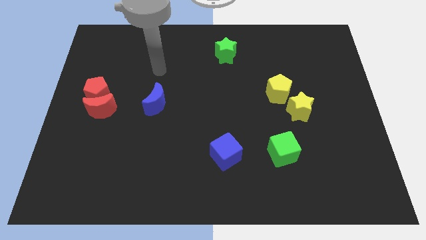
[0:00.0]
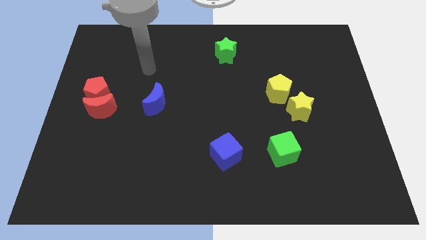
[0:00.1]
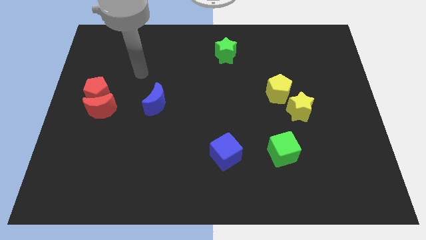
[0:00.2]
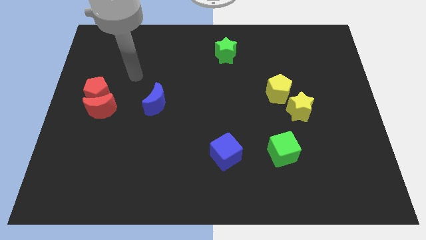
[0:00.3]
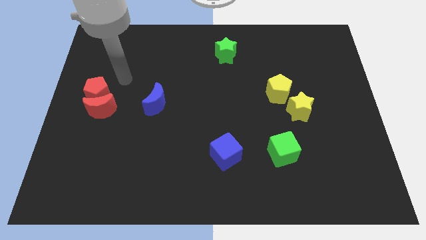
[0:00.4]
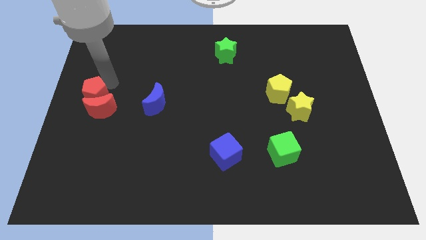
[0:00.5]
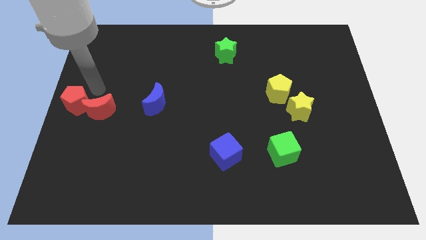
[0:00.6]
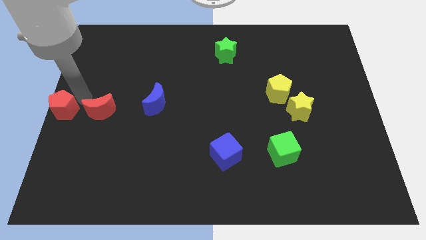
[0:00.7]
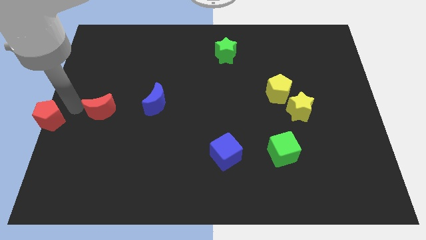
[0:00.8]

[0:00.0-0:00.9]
pull the red moon apart from the red pentagon

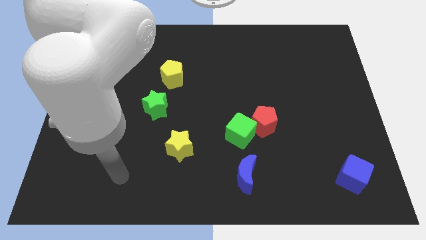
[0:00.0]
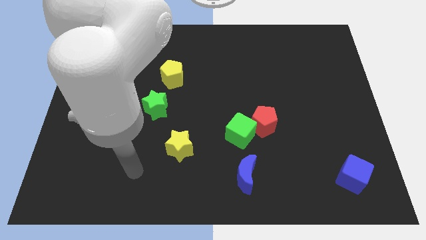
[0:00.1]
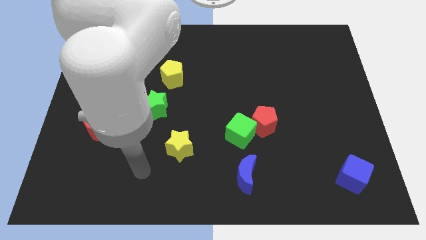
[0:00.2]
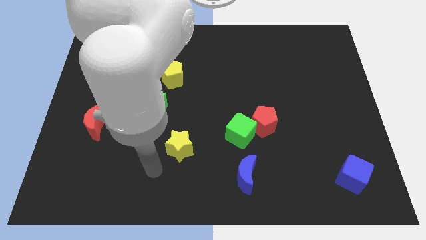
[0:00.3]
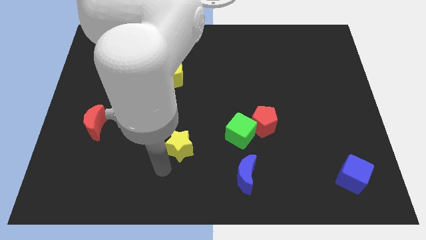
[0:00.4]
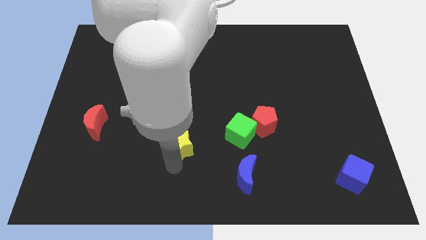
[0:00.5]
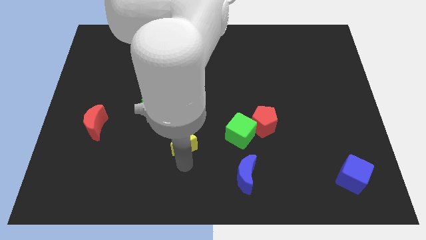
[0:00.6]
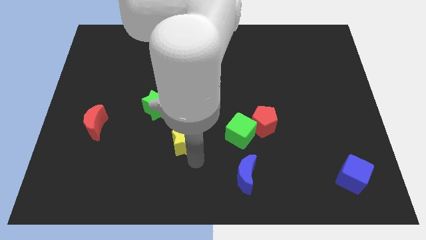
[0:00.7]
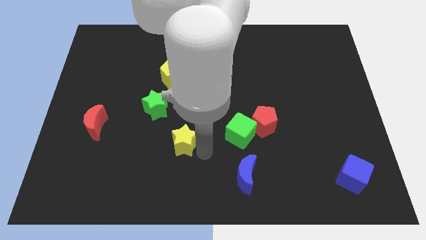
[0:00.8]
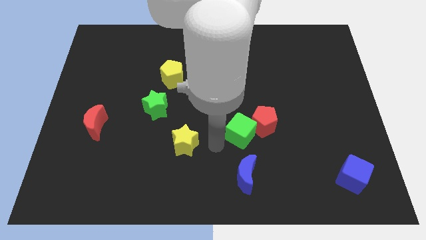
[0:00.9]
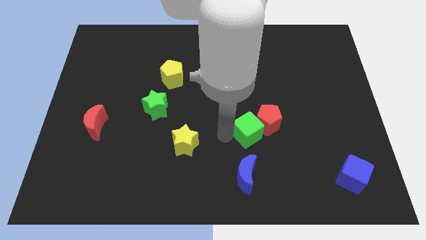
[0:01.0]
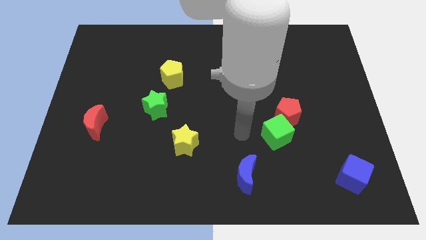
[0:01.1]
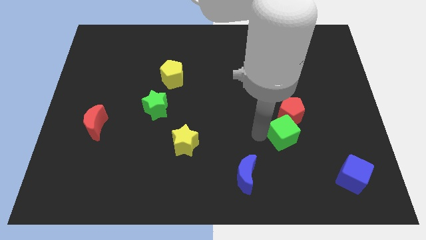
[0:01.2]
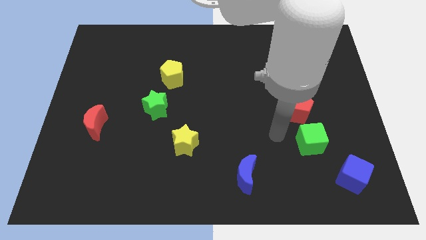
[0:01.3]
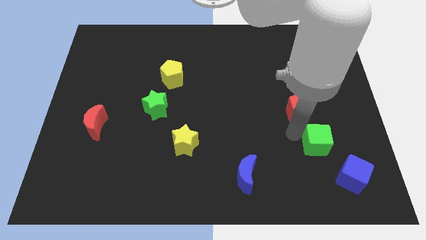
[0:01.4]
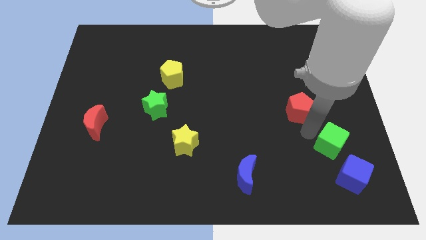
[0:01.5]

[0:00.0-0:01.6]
move the red pentagon away from the green cube

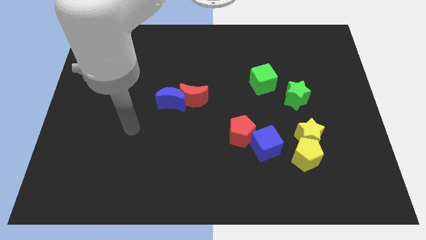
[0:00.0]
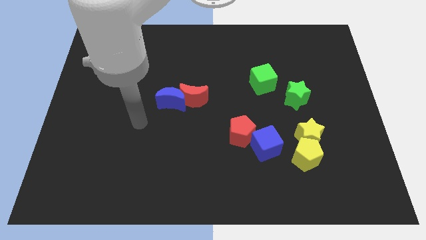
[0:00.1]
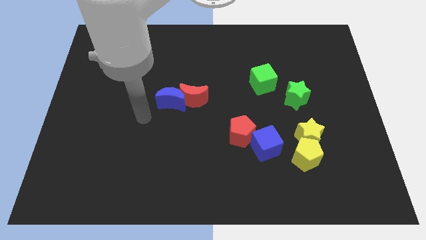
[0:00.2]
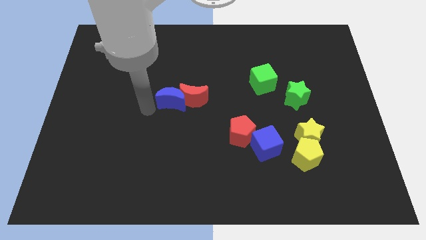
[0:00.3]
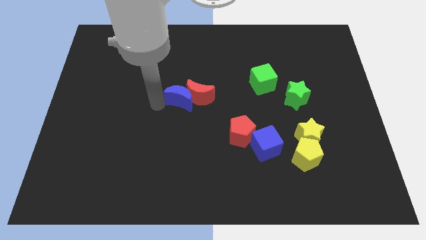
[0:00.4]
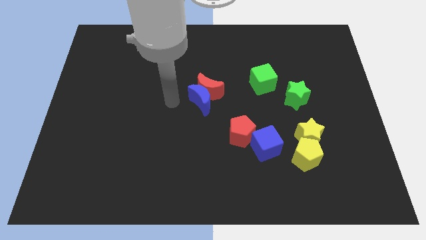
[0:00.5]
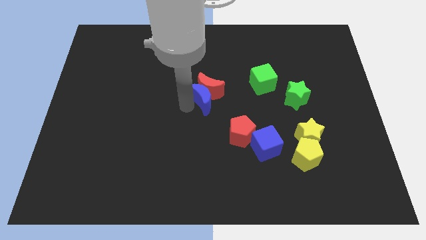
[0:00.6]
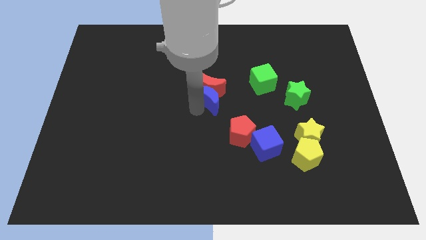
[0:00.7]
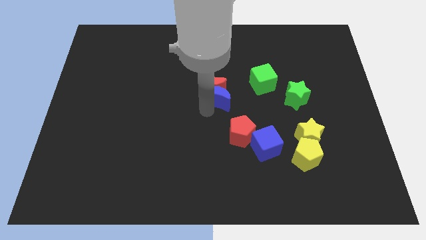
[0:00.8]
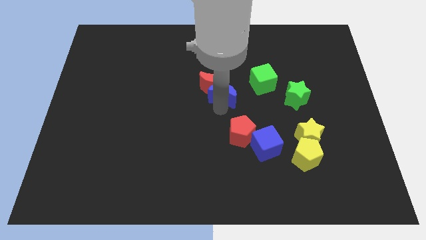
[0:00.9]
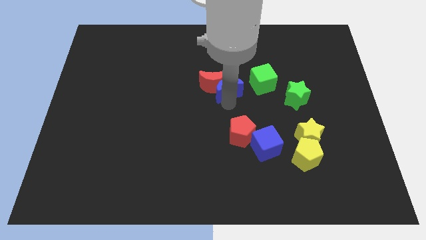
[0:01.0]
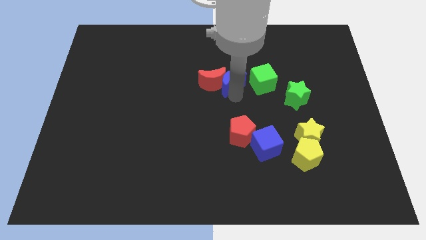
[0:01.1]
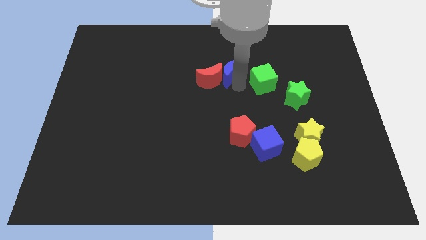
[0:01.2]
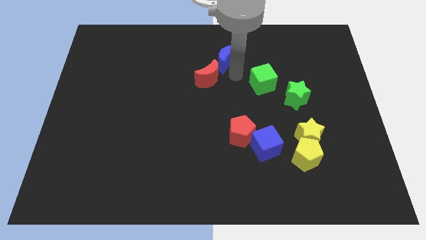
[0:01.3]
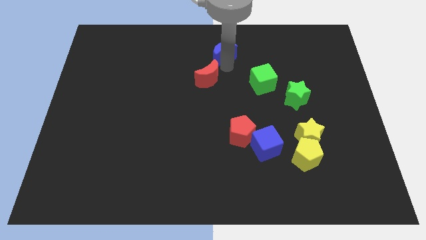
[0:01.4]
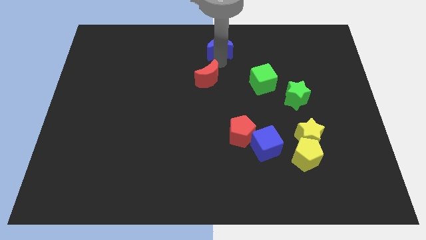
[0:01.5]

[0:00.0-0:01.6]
separate the red moon from the blue moon

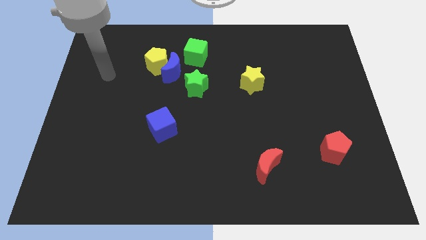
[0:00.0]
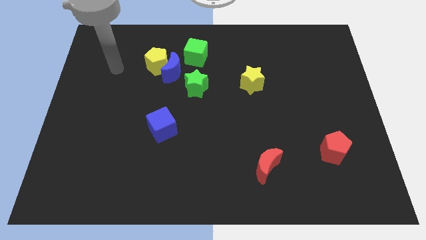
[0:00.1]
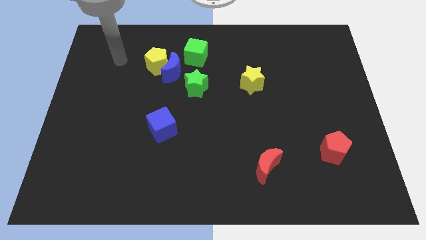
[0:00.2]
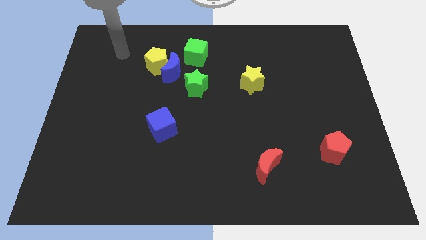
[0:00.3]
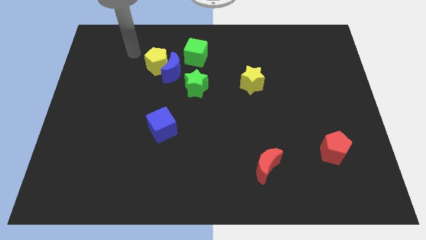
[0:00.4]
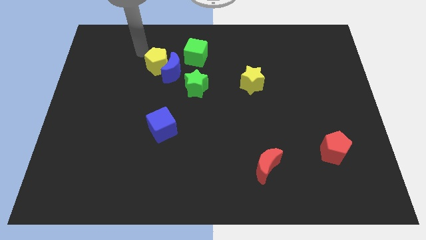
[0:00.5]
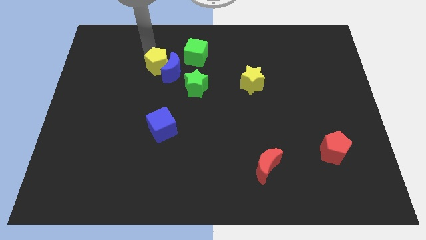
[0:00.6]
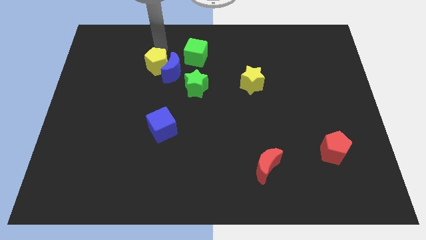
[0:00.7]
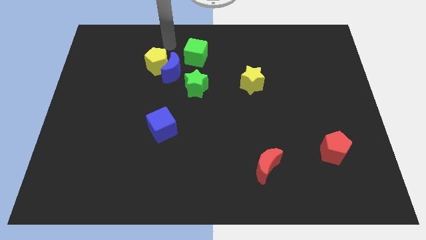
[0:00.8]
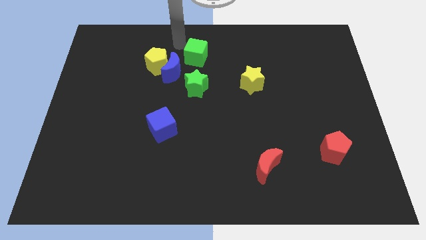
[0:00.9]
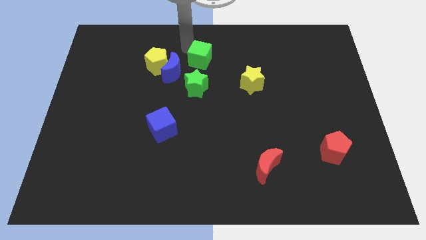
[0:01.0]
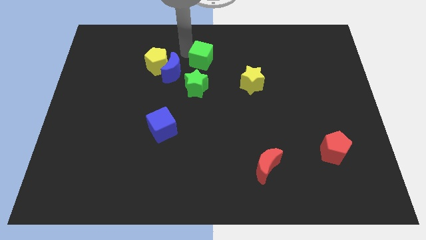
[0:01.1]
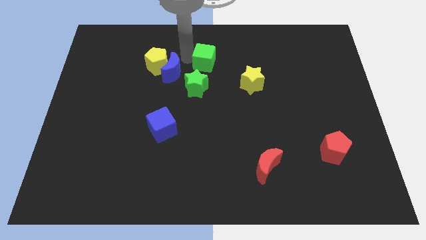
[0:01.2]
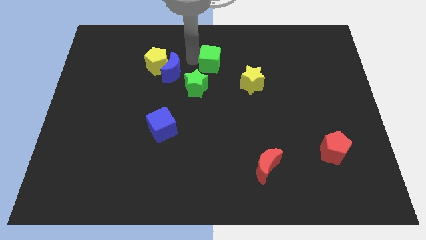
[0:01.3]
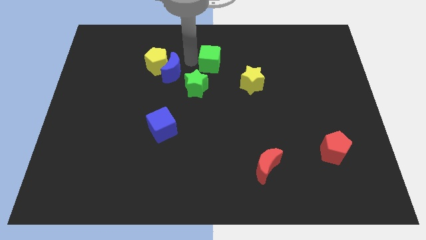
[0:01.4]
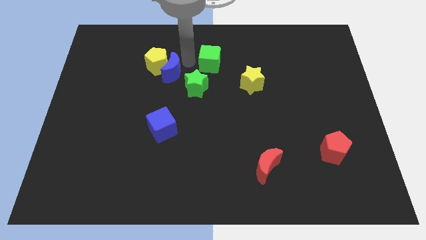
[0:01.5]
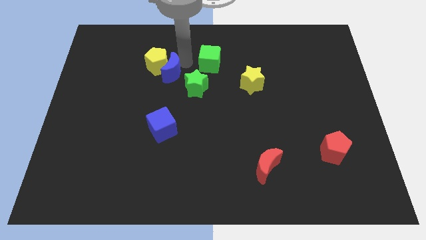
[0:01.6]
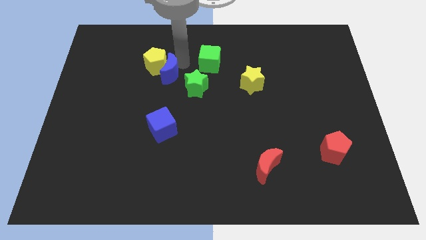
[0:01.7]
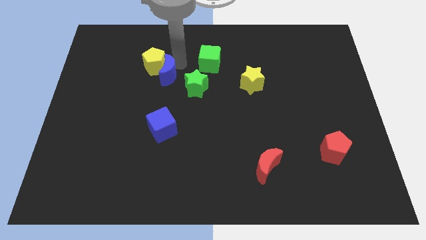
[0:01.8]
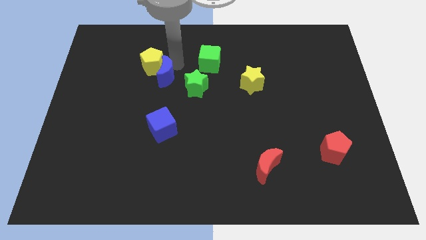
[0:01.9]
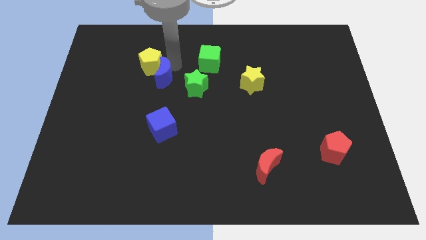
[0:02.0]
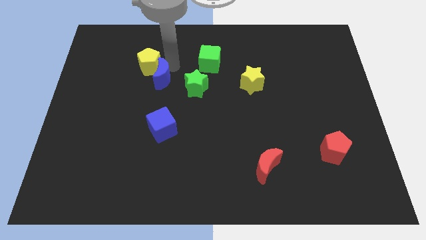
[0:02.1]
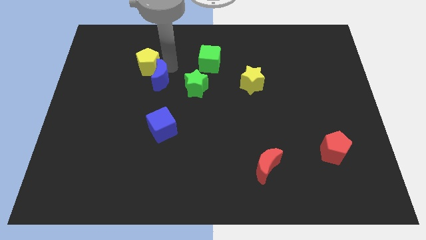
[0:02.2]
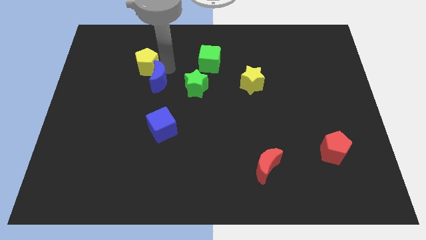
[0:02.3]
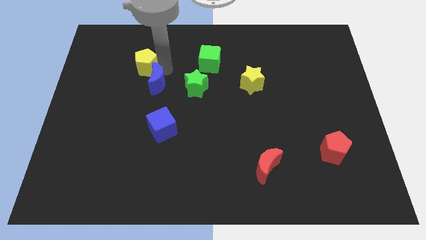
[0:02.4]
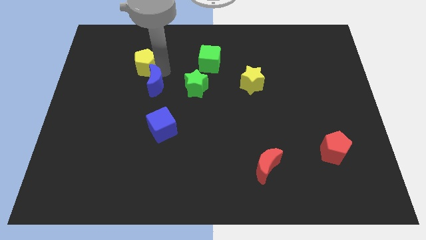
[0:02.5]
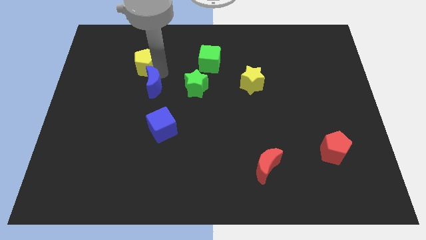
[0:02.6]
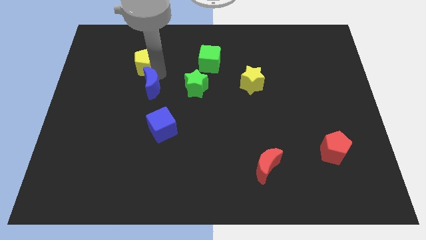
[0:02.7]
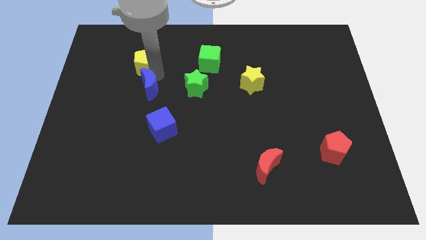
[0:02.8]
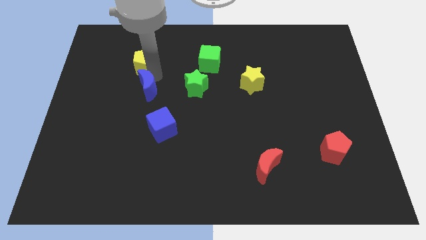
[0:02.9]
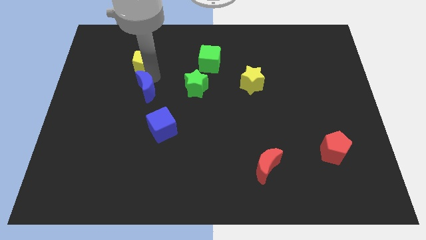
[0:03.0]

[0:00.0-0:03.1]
pull the blue moon apart from the group of blocks

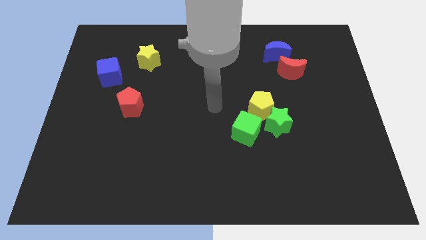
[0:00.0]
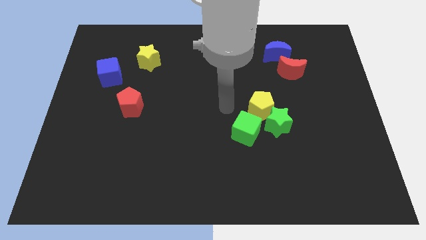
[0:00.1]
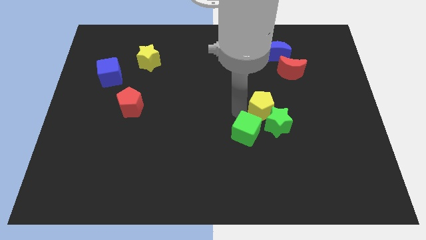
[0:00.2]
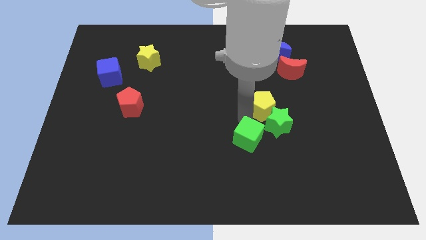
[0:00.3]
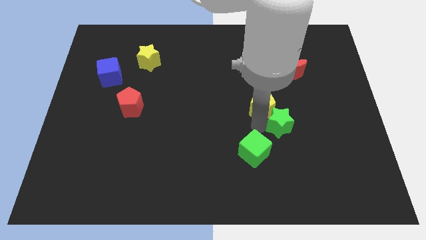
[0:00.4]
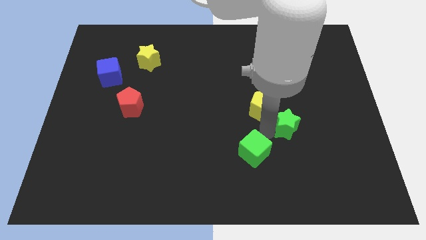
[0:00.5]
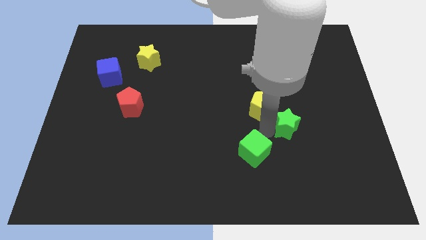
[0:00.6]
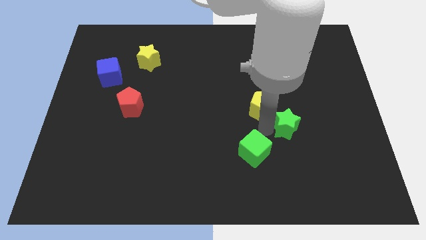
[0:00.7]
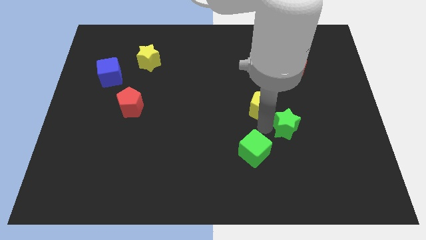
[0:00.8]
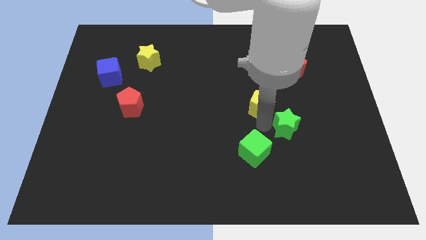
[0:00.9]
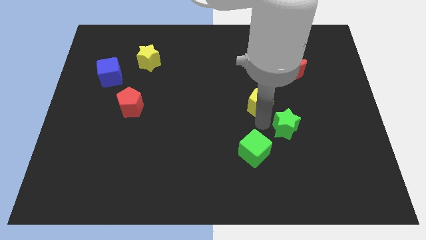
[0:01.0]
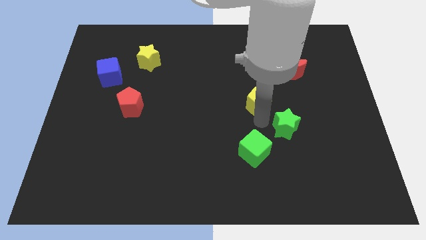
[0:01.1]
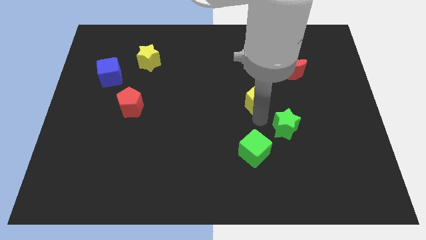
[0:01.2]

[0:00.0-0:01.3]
move the yellow pentagon away from the green star and green cube

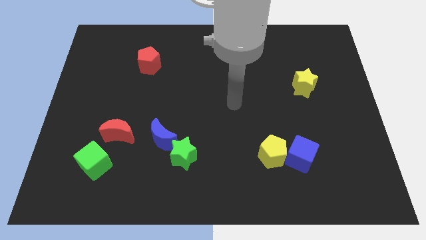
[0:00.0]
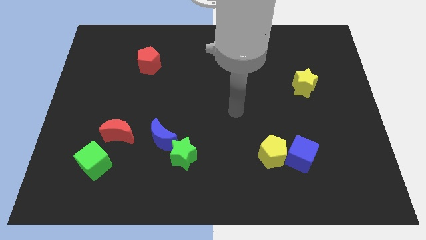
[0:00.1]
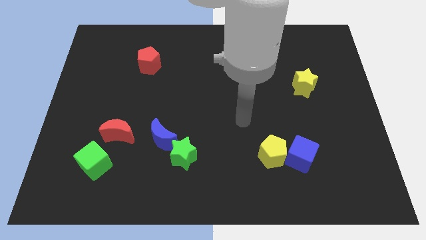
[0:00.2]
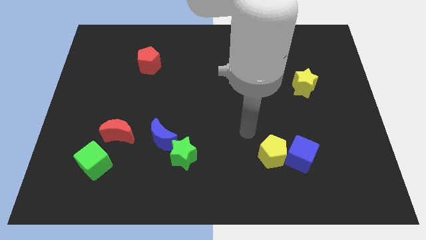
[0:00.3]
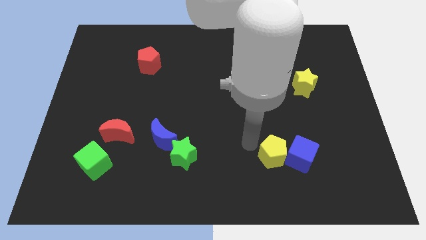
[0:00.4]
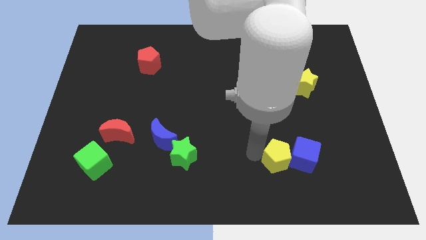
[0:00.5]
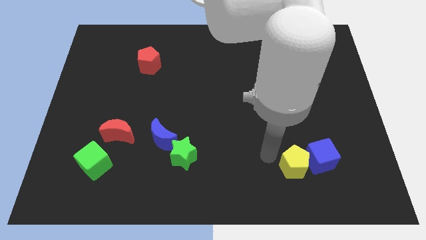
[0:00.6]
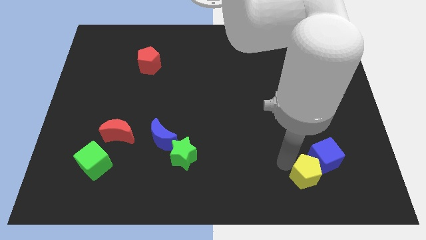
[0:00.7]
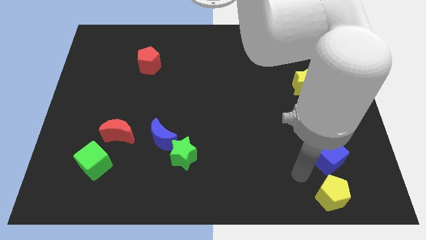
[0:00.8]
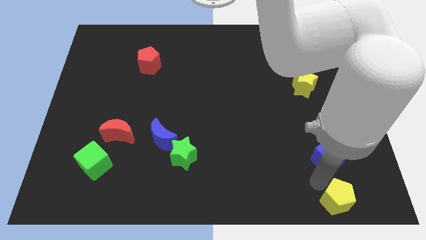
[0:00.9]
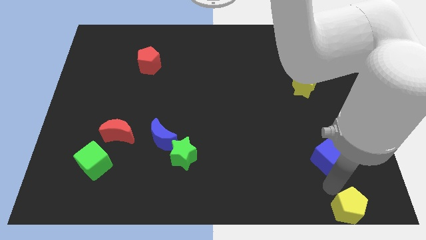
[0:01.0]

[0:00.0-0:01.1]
separate the blue cube from the yellow pentagon
